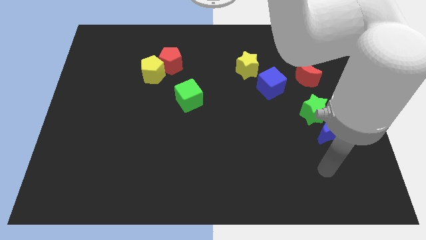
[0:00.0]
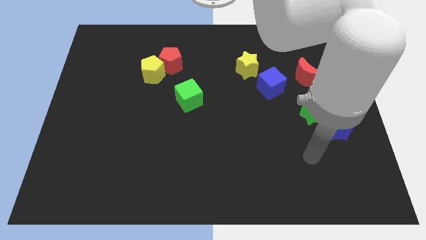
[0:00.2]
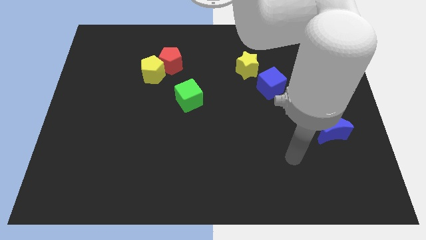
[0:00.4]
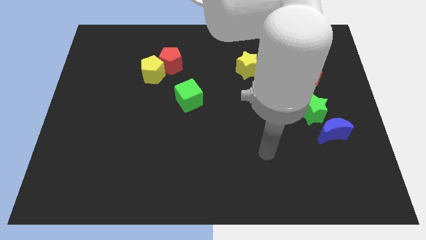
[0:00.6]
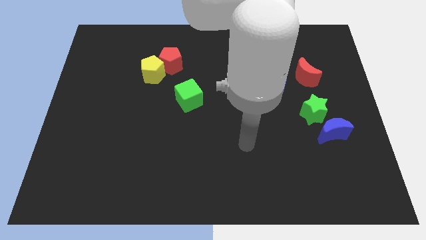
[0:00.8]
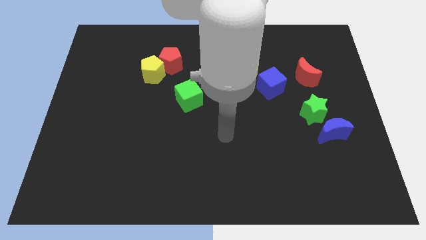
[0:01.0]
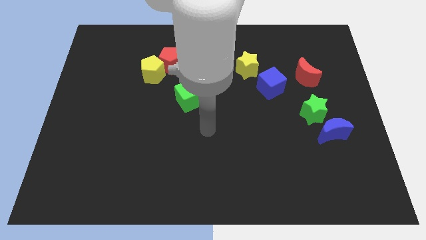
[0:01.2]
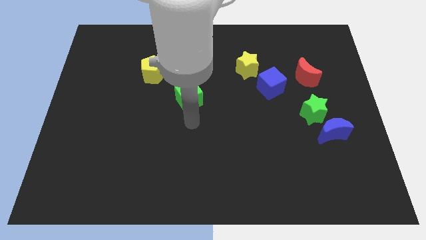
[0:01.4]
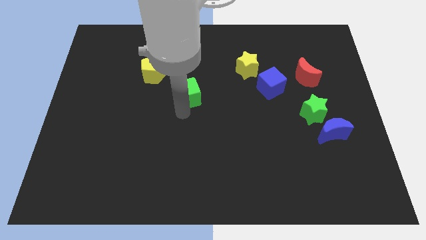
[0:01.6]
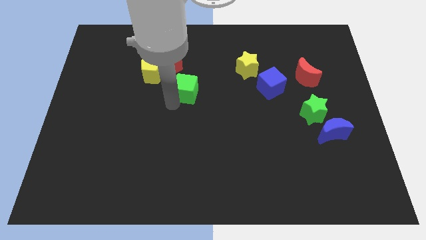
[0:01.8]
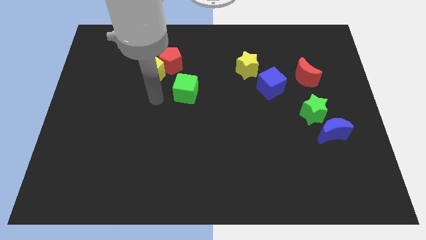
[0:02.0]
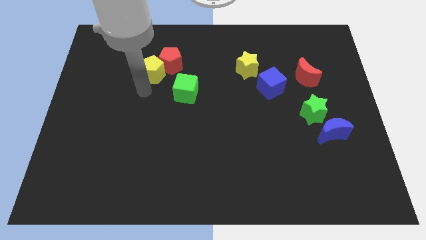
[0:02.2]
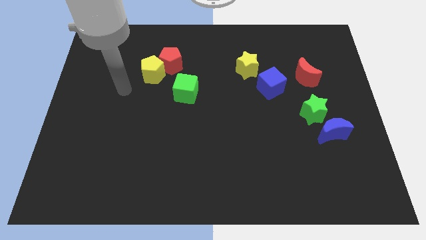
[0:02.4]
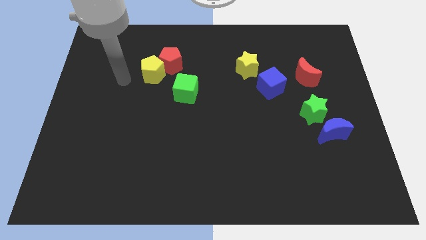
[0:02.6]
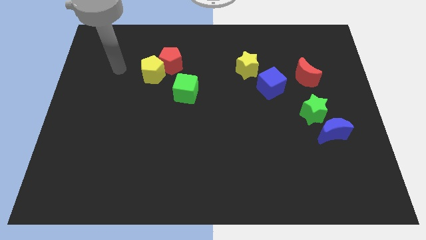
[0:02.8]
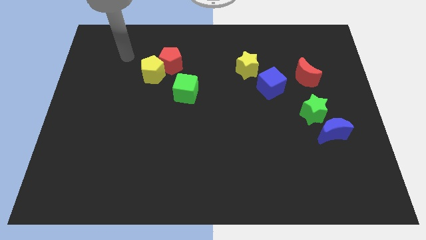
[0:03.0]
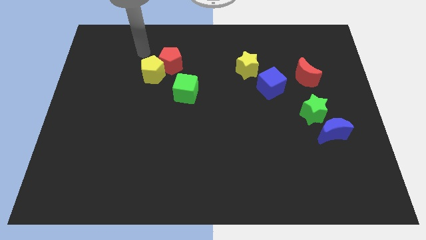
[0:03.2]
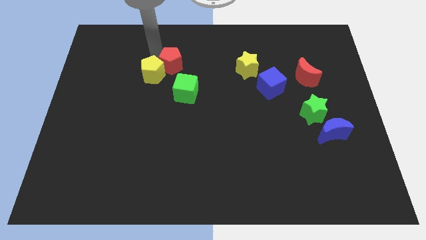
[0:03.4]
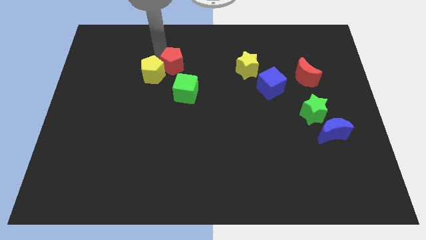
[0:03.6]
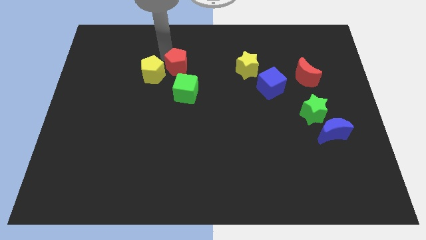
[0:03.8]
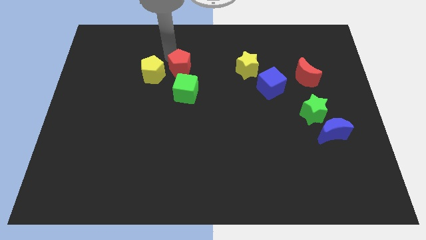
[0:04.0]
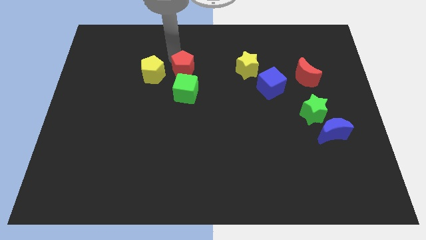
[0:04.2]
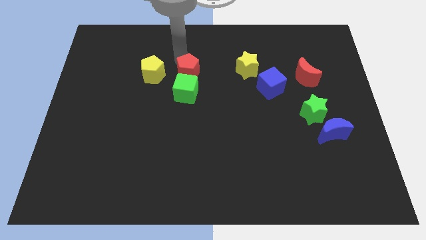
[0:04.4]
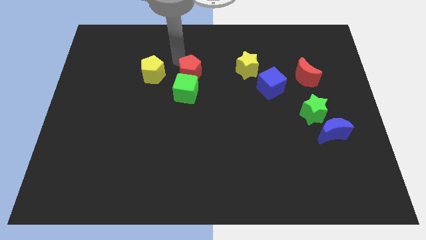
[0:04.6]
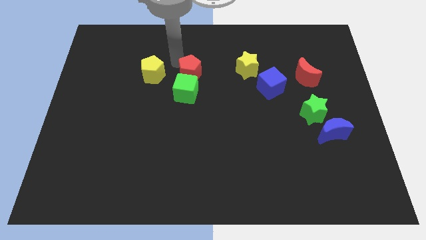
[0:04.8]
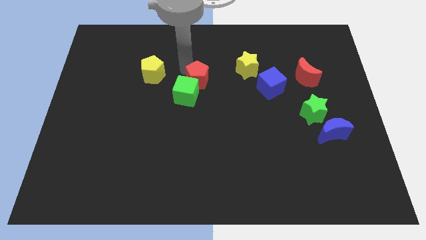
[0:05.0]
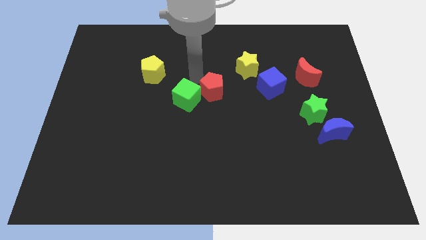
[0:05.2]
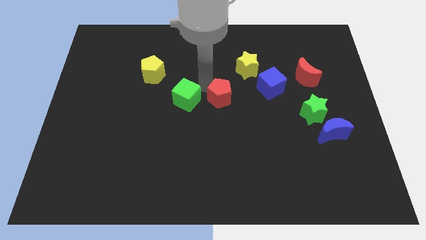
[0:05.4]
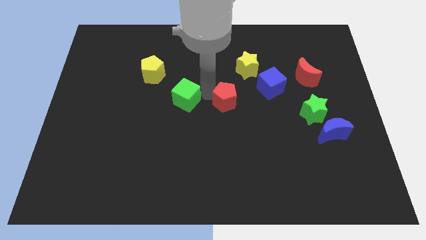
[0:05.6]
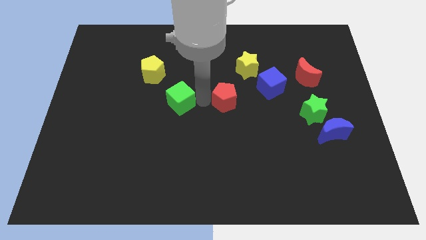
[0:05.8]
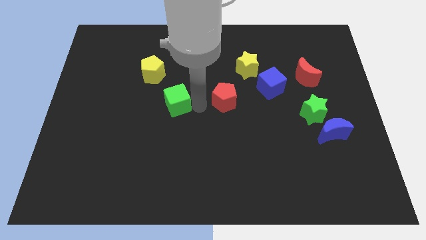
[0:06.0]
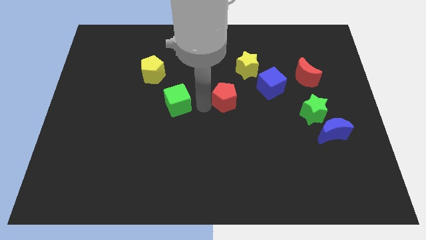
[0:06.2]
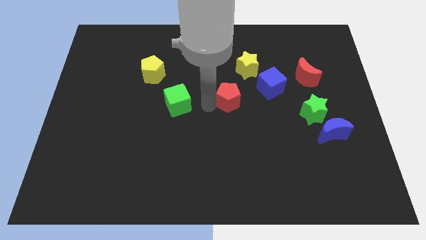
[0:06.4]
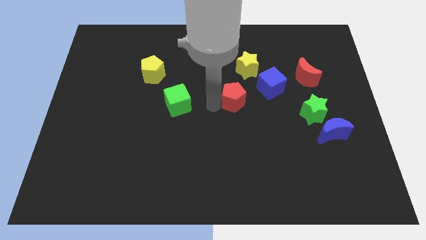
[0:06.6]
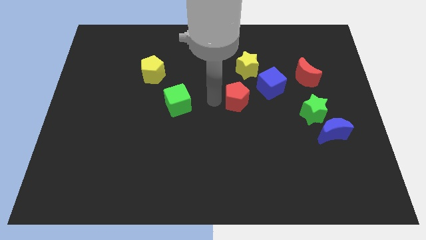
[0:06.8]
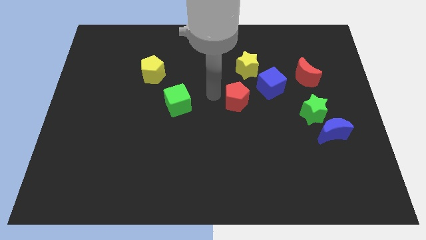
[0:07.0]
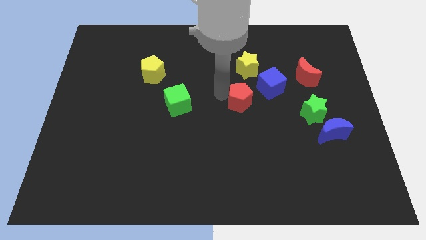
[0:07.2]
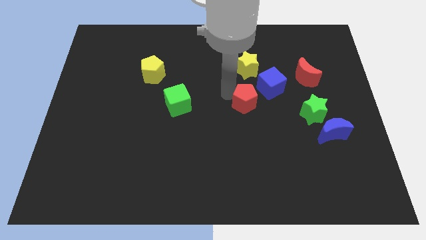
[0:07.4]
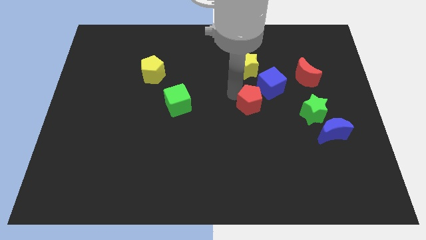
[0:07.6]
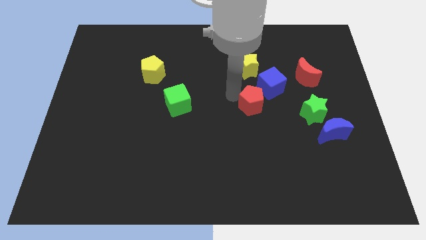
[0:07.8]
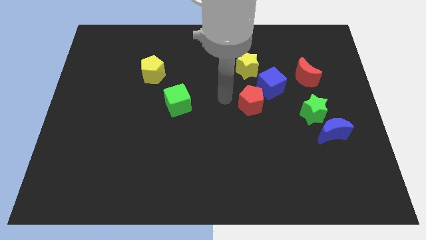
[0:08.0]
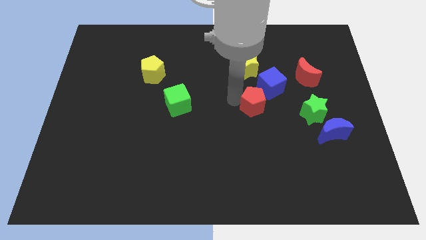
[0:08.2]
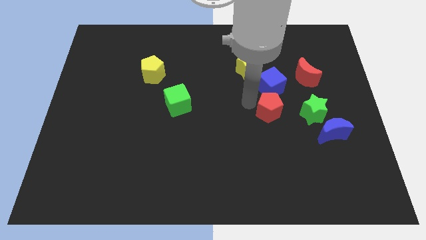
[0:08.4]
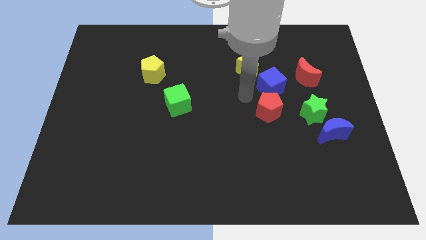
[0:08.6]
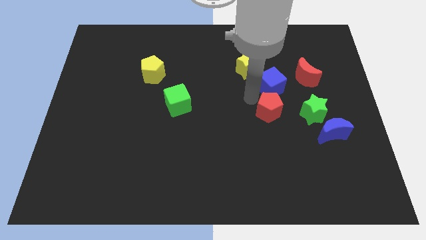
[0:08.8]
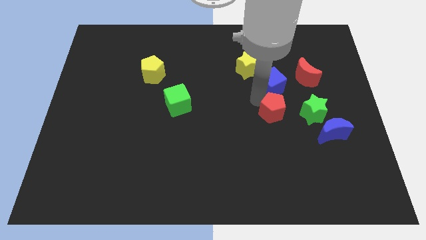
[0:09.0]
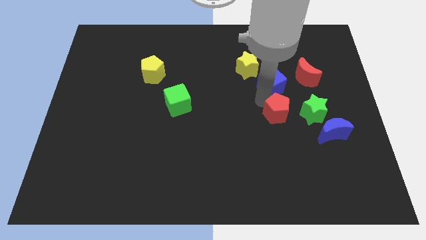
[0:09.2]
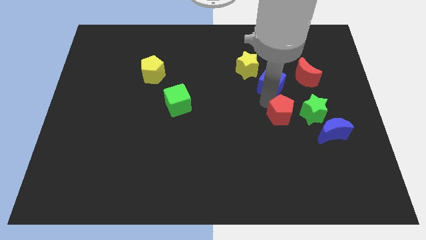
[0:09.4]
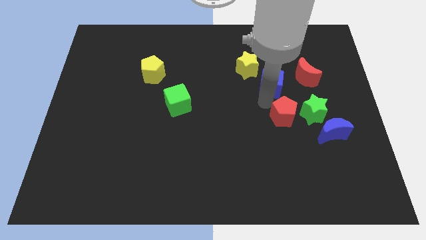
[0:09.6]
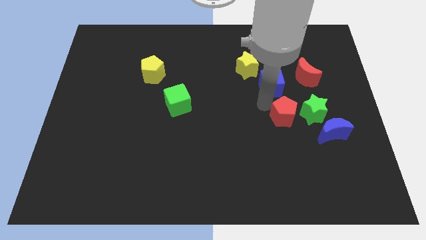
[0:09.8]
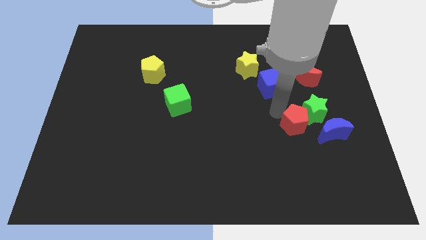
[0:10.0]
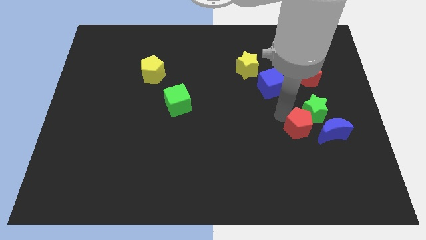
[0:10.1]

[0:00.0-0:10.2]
put the red pentagon to the bottom side of the green star

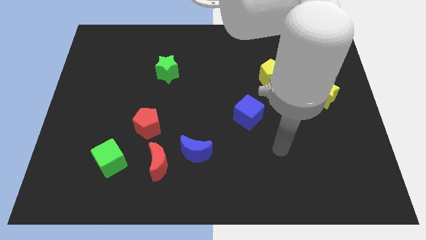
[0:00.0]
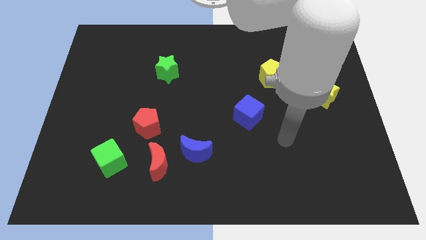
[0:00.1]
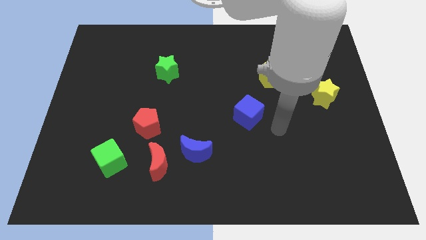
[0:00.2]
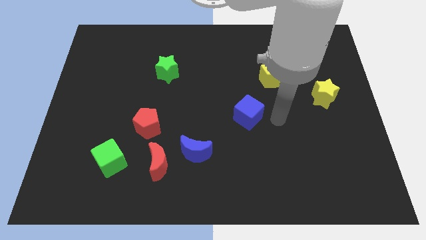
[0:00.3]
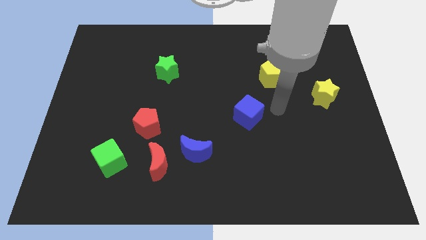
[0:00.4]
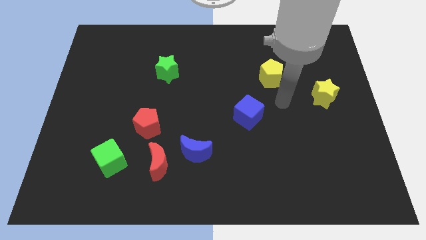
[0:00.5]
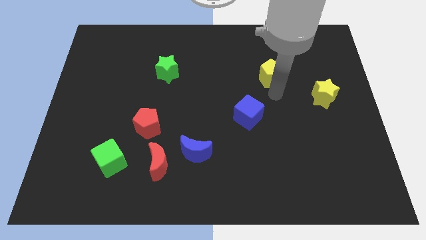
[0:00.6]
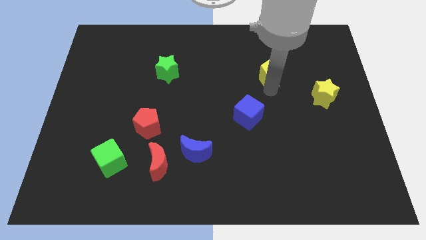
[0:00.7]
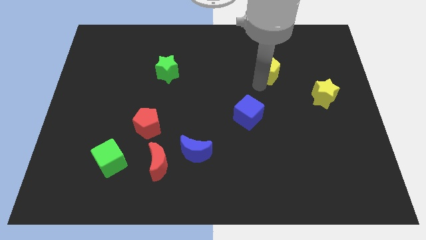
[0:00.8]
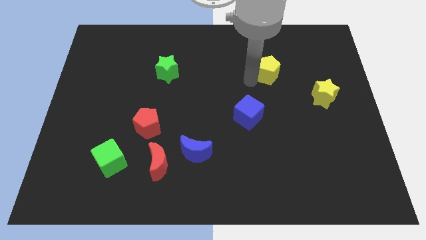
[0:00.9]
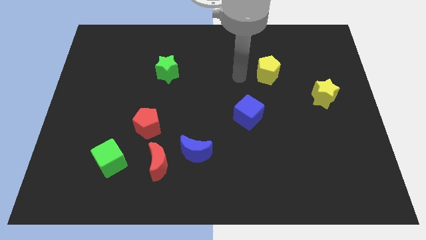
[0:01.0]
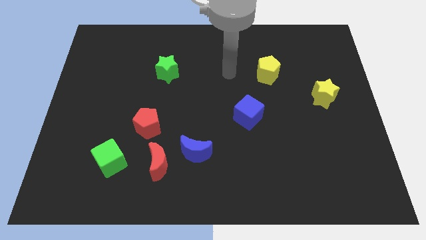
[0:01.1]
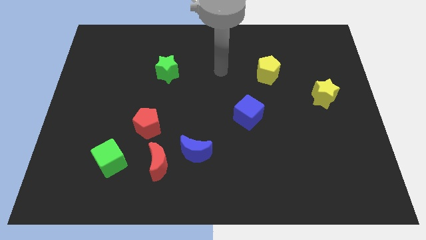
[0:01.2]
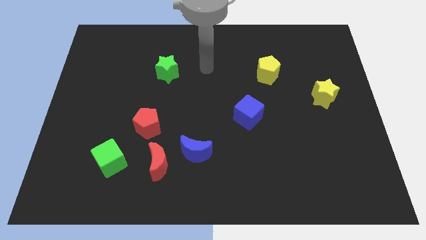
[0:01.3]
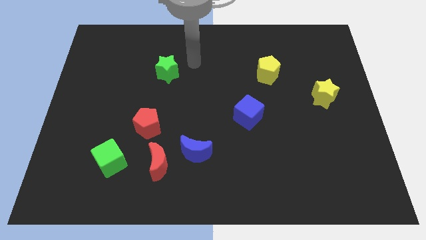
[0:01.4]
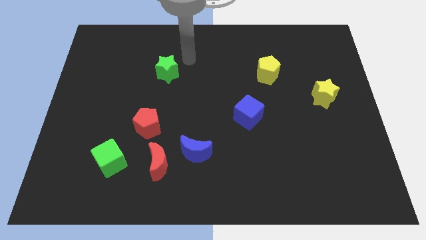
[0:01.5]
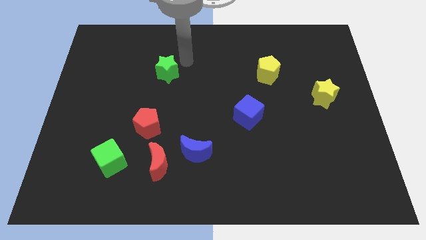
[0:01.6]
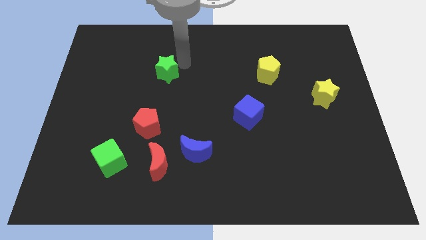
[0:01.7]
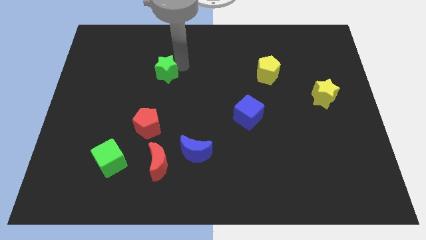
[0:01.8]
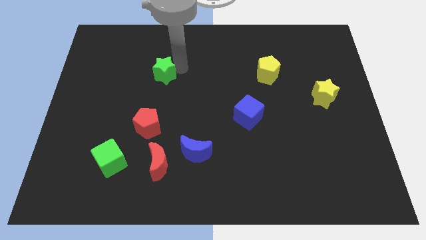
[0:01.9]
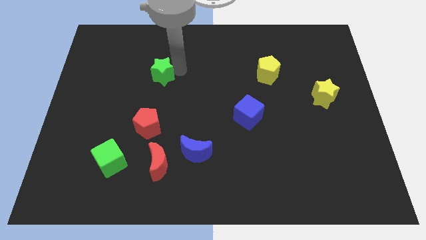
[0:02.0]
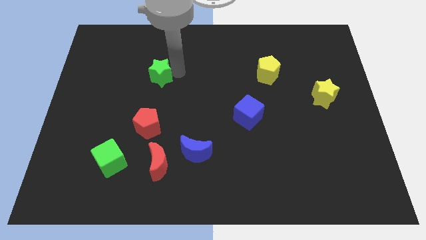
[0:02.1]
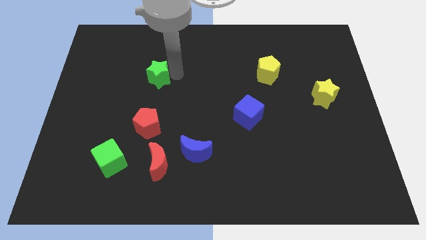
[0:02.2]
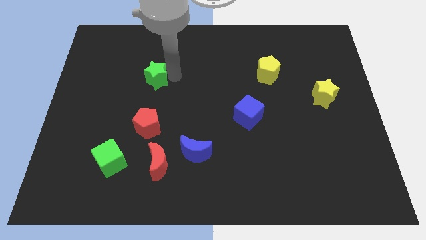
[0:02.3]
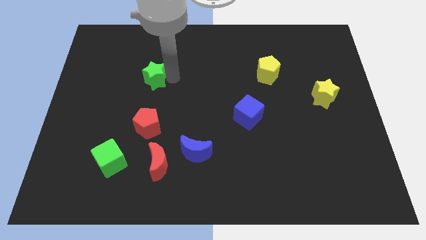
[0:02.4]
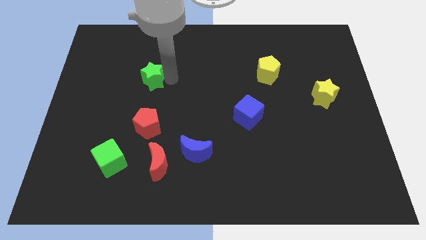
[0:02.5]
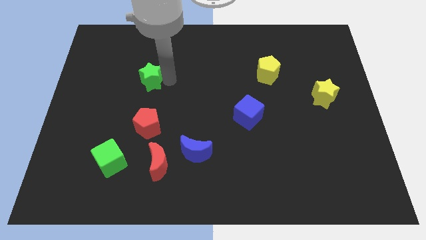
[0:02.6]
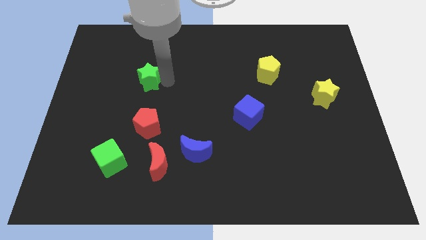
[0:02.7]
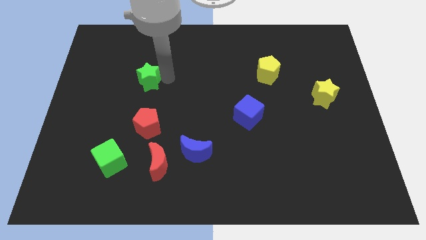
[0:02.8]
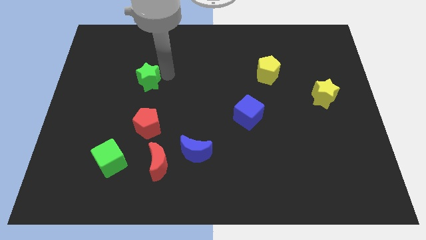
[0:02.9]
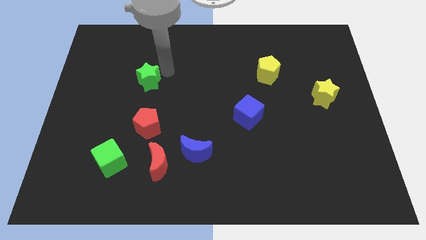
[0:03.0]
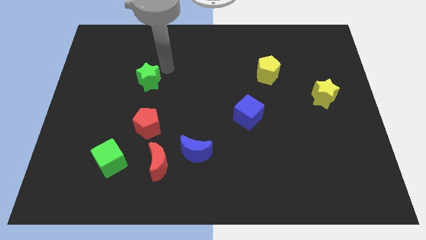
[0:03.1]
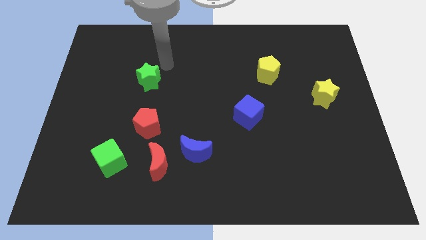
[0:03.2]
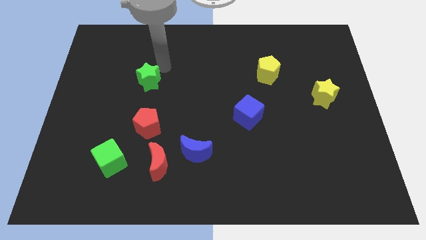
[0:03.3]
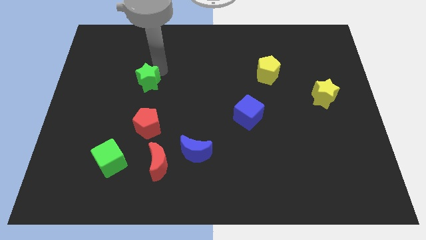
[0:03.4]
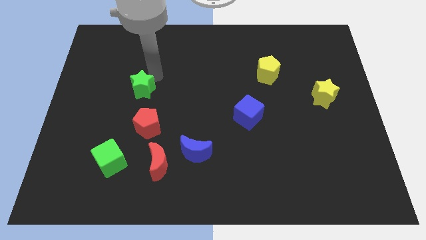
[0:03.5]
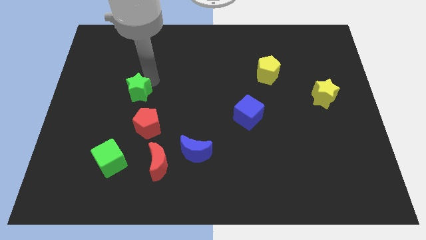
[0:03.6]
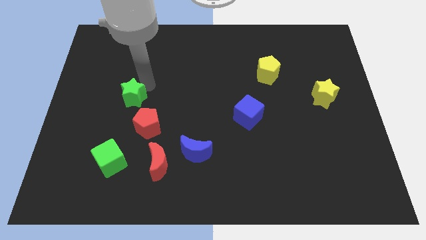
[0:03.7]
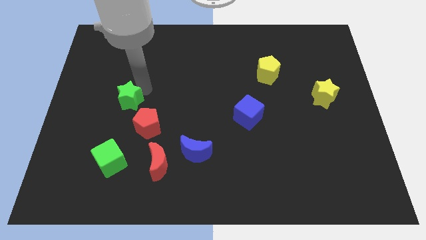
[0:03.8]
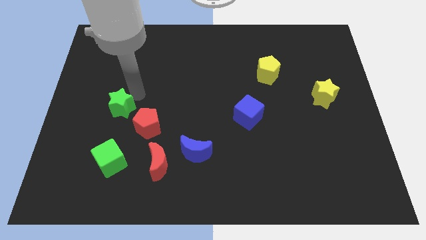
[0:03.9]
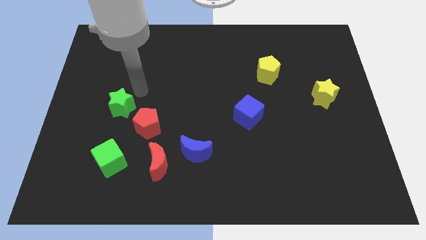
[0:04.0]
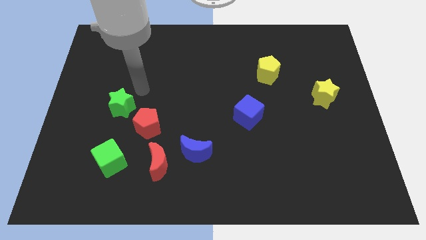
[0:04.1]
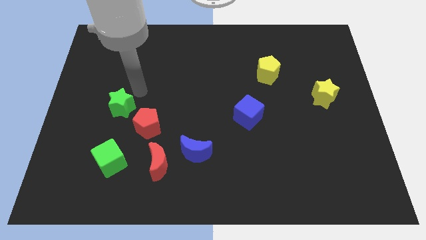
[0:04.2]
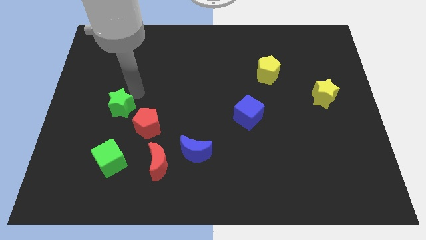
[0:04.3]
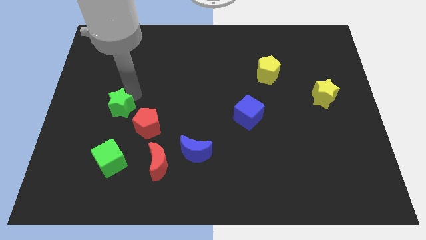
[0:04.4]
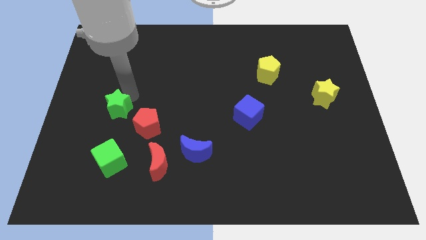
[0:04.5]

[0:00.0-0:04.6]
slide the green star to the left of the red pentagon
